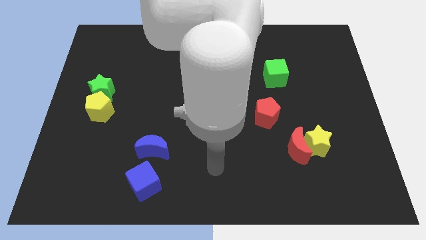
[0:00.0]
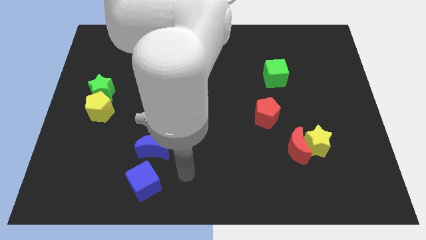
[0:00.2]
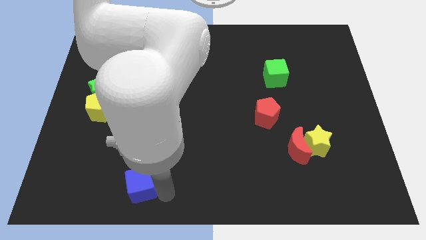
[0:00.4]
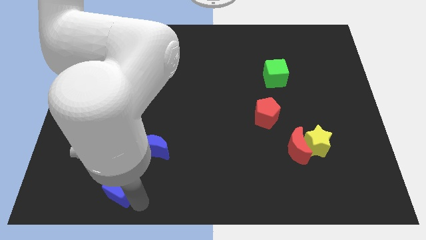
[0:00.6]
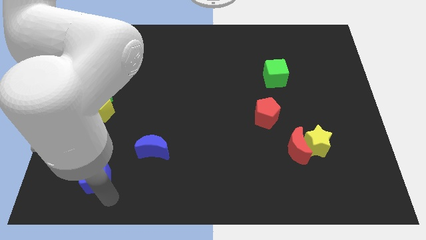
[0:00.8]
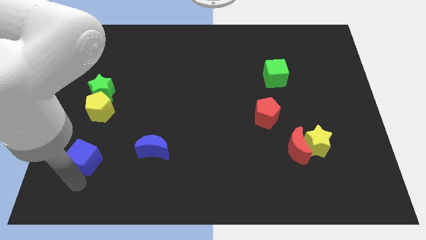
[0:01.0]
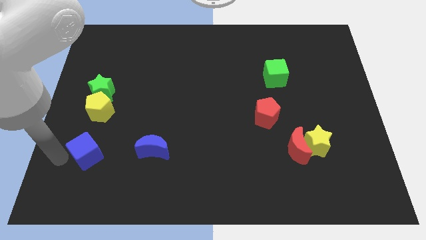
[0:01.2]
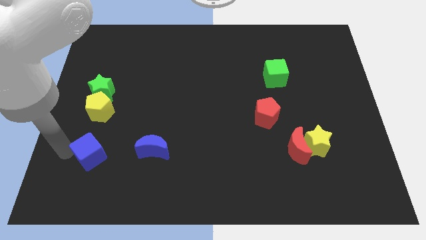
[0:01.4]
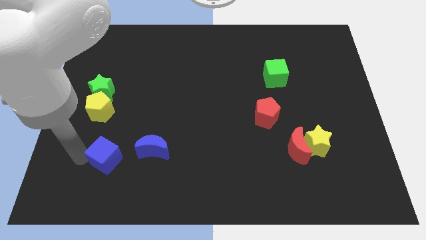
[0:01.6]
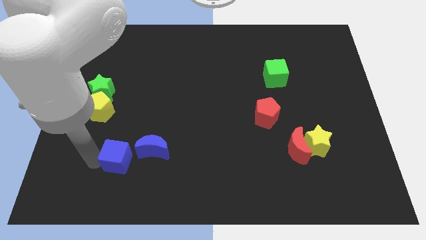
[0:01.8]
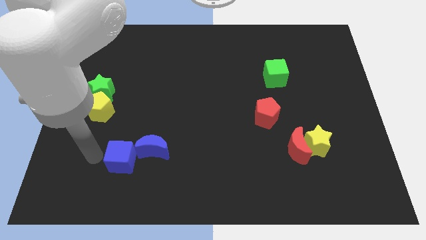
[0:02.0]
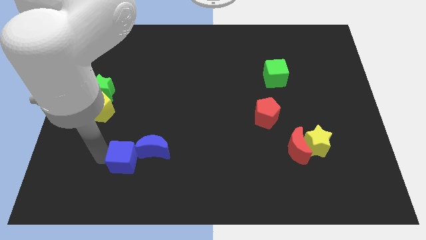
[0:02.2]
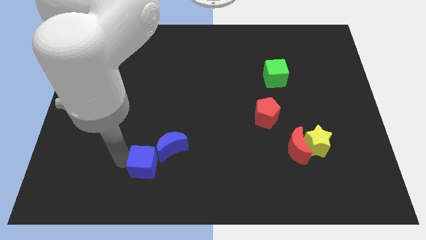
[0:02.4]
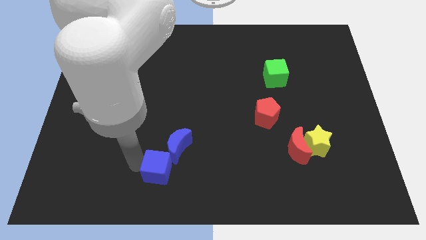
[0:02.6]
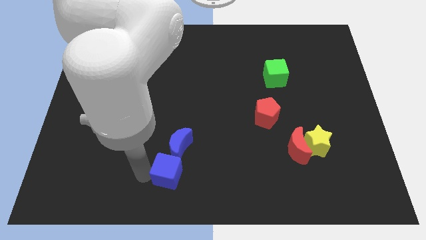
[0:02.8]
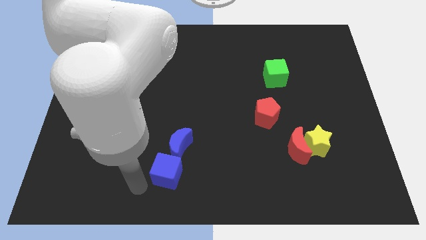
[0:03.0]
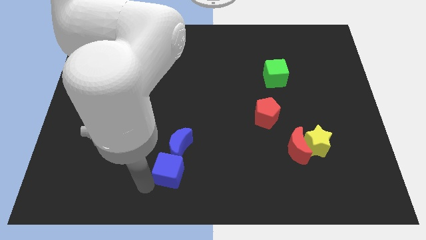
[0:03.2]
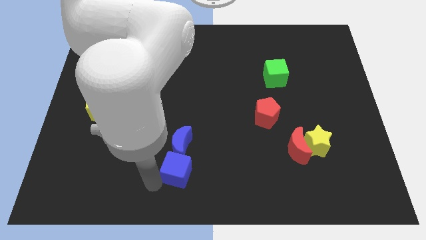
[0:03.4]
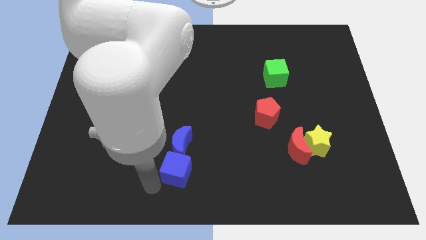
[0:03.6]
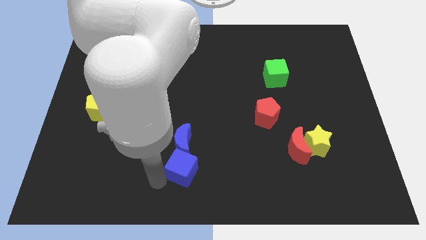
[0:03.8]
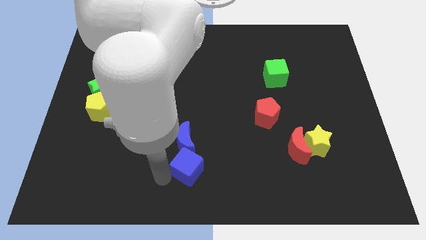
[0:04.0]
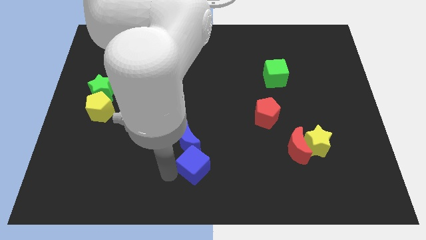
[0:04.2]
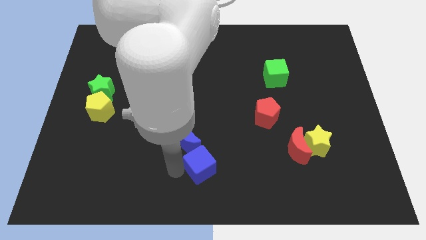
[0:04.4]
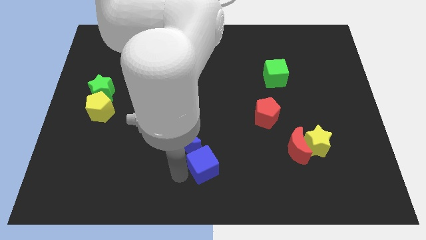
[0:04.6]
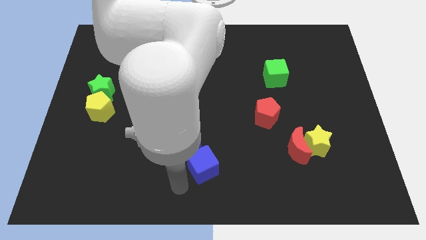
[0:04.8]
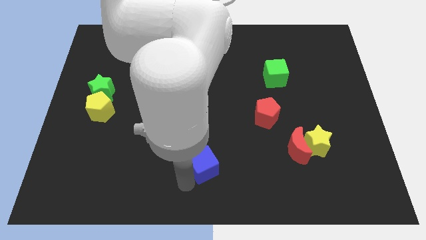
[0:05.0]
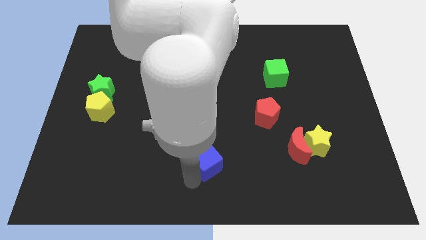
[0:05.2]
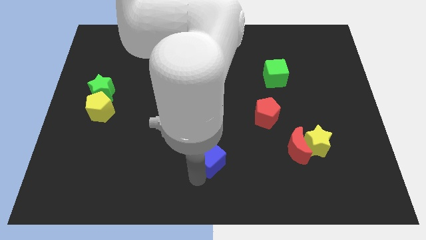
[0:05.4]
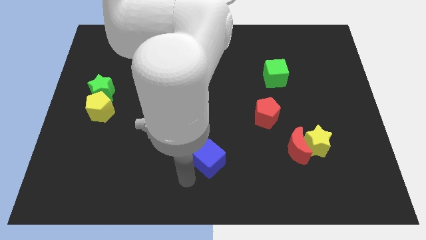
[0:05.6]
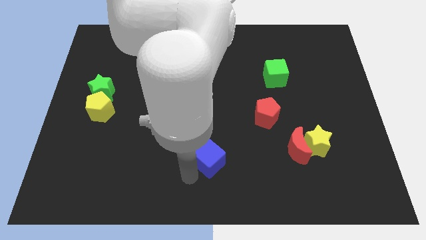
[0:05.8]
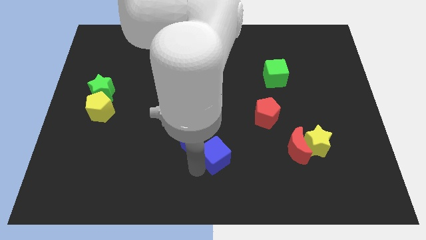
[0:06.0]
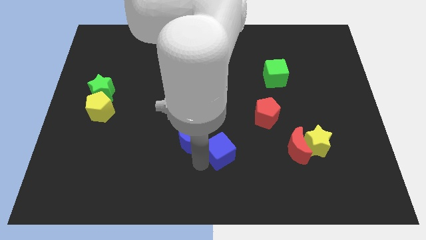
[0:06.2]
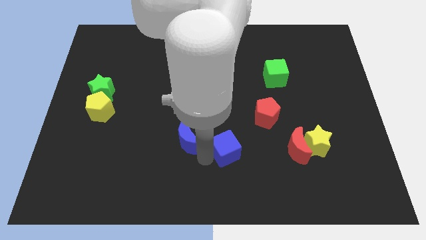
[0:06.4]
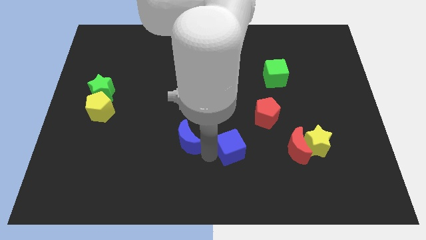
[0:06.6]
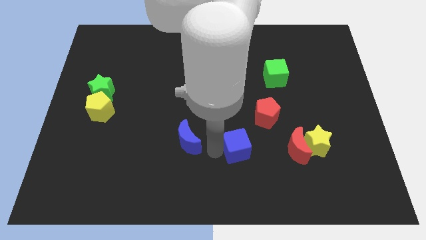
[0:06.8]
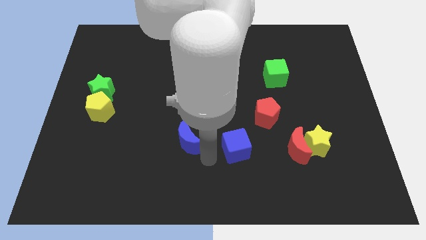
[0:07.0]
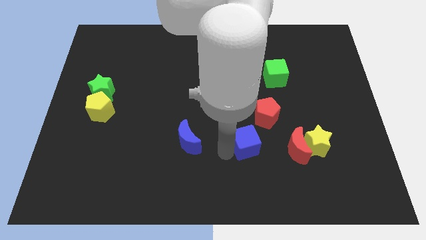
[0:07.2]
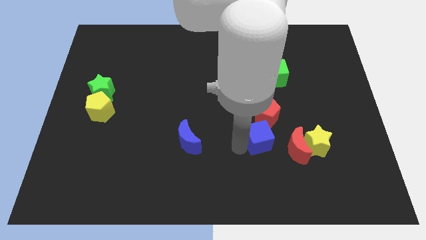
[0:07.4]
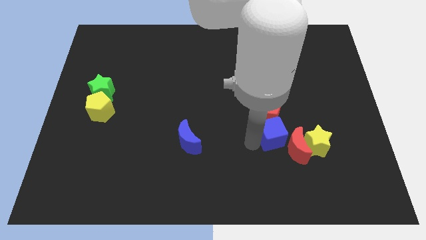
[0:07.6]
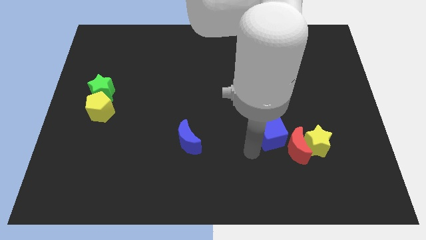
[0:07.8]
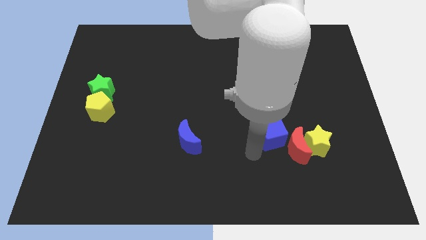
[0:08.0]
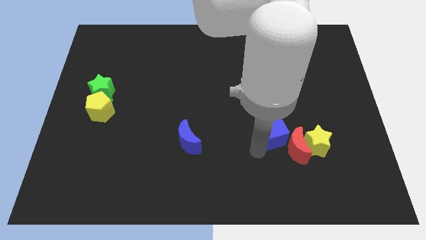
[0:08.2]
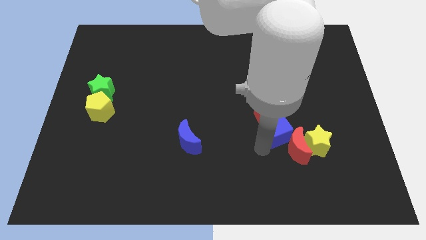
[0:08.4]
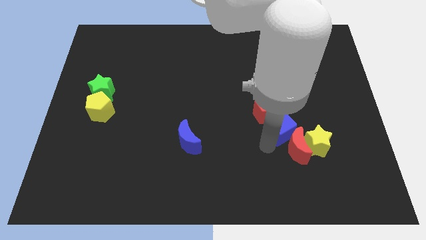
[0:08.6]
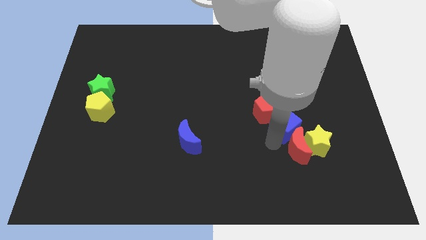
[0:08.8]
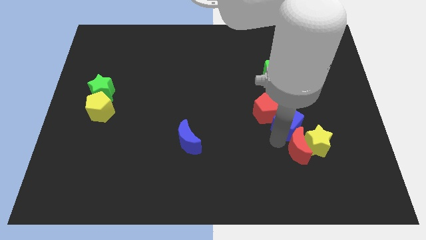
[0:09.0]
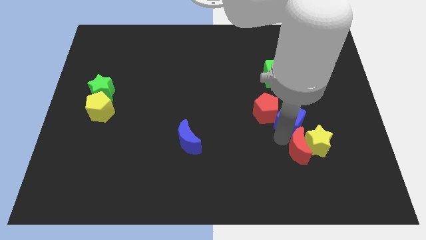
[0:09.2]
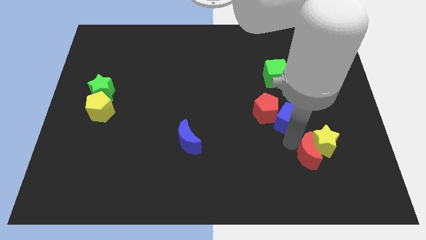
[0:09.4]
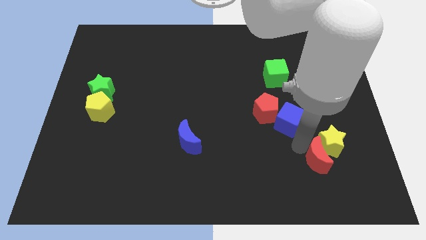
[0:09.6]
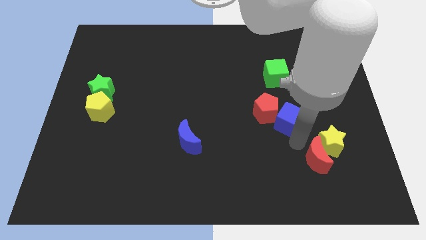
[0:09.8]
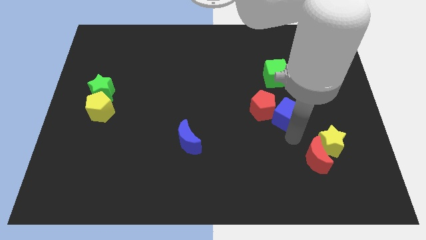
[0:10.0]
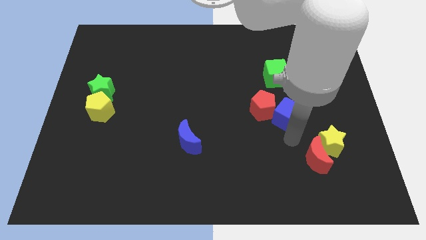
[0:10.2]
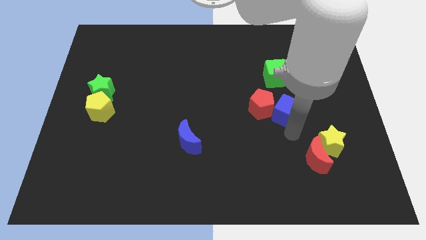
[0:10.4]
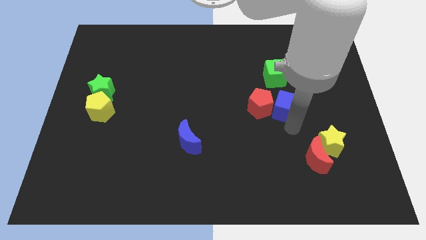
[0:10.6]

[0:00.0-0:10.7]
push the blue cube diagonally up and to the right of the red pentagon

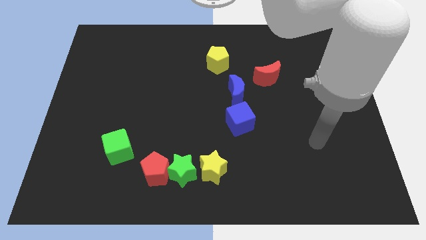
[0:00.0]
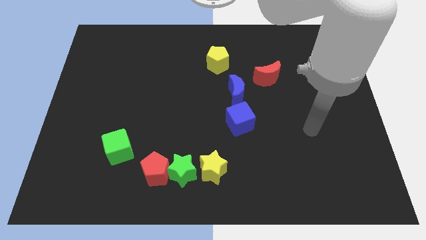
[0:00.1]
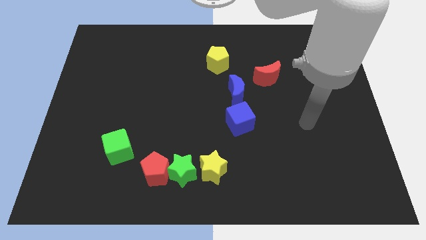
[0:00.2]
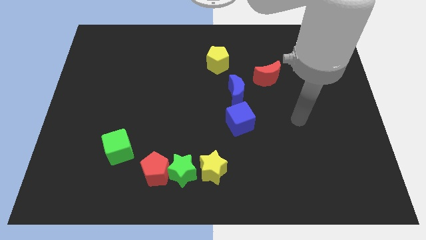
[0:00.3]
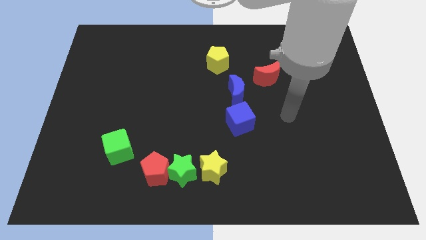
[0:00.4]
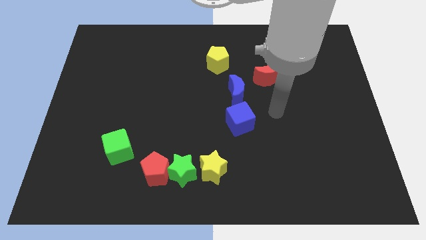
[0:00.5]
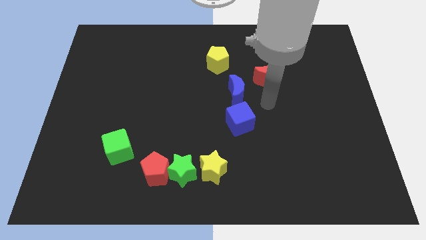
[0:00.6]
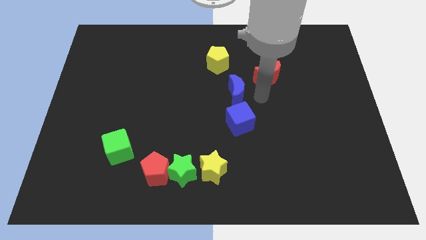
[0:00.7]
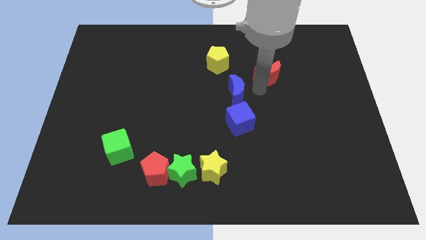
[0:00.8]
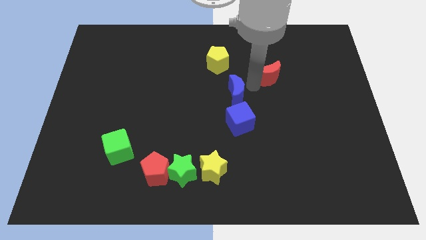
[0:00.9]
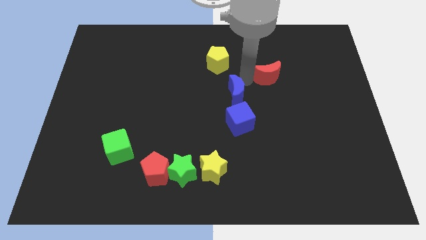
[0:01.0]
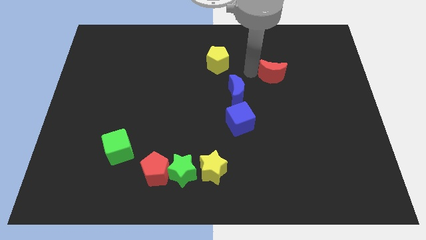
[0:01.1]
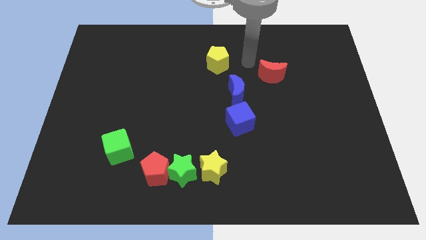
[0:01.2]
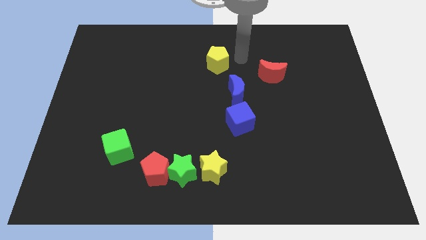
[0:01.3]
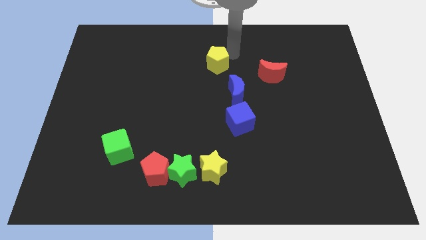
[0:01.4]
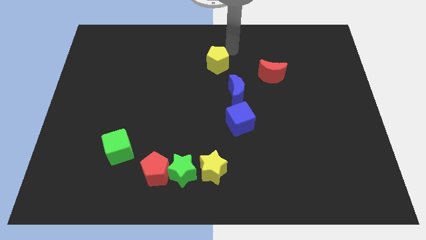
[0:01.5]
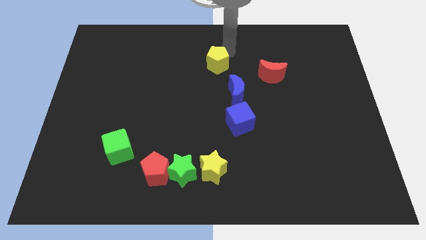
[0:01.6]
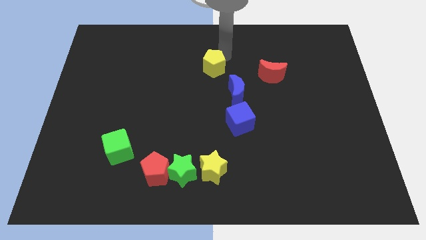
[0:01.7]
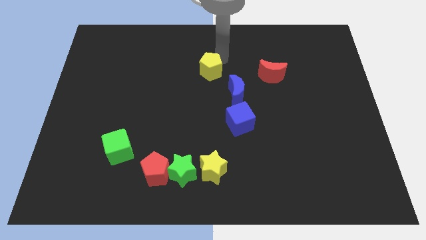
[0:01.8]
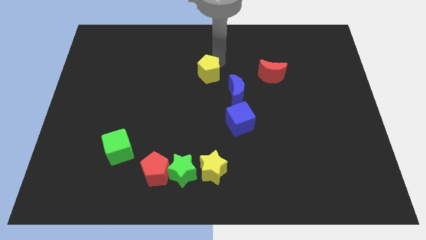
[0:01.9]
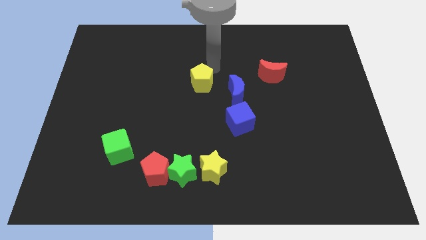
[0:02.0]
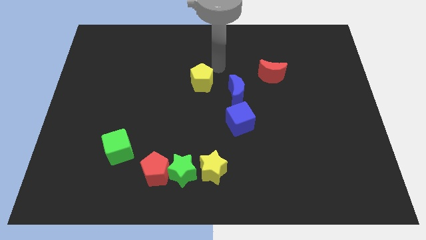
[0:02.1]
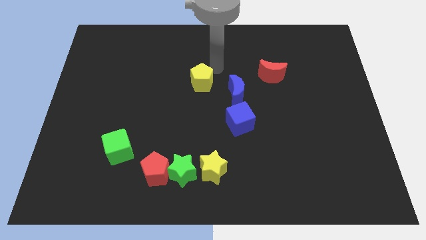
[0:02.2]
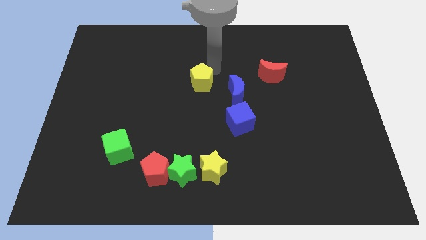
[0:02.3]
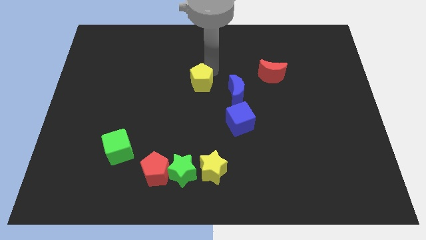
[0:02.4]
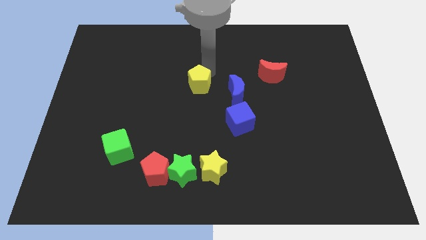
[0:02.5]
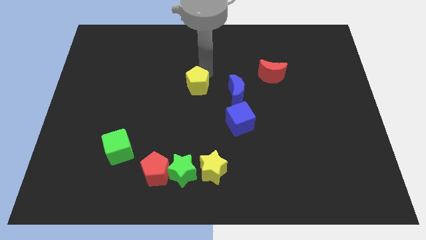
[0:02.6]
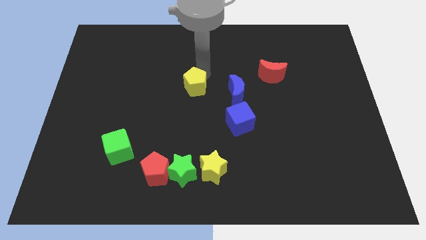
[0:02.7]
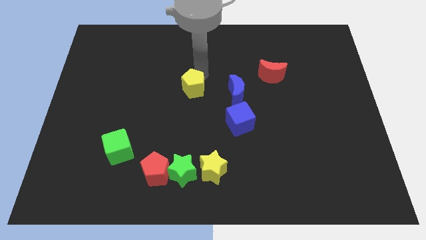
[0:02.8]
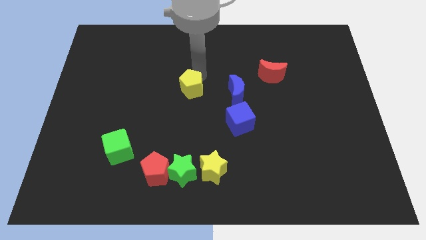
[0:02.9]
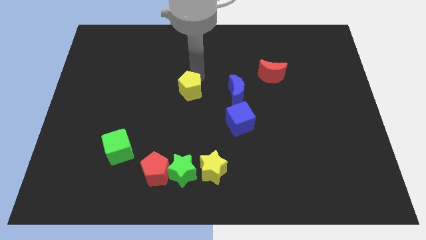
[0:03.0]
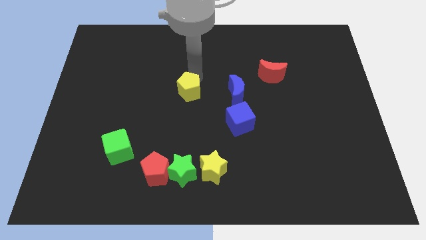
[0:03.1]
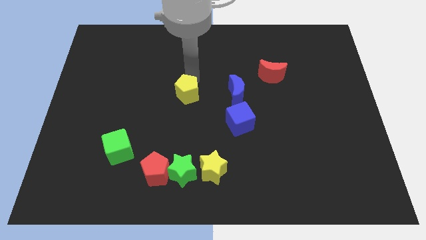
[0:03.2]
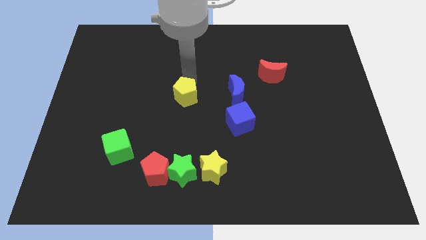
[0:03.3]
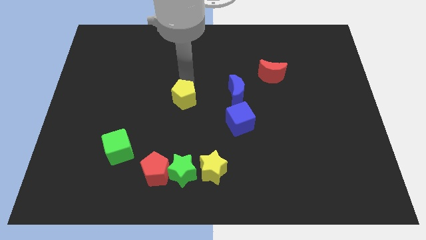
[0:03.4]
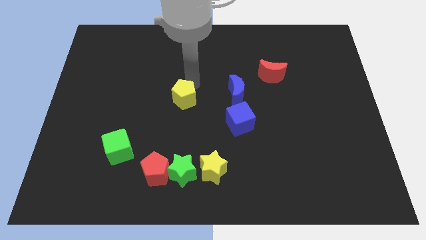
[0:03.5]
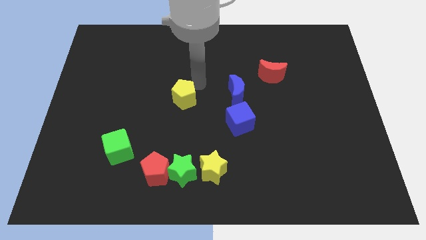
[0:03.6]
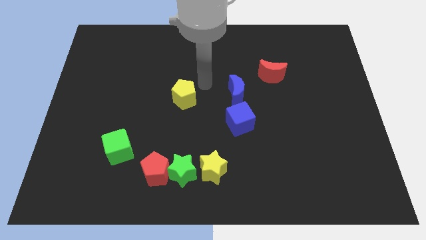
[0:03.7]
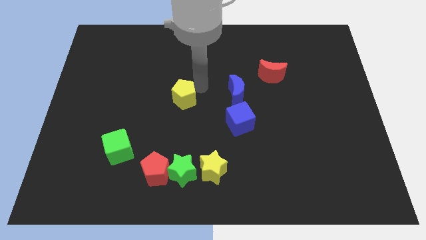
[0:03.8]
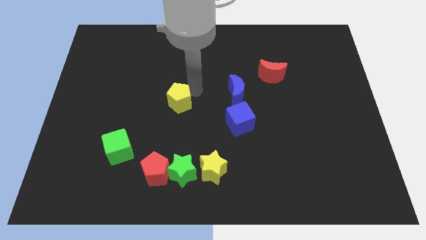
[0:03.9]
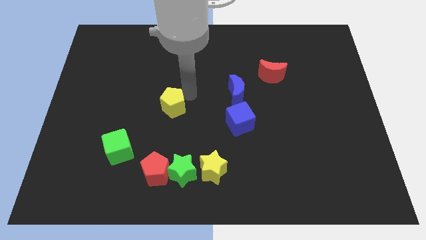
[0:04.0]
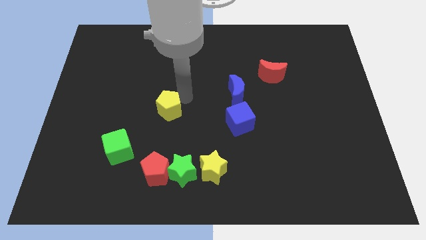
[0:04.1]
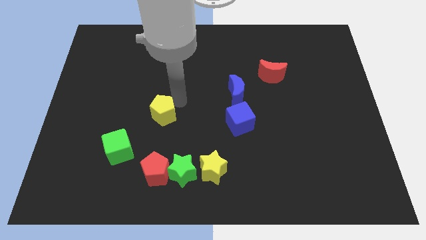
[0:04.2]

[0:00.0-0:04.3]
put the yellow pentagon diagonally up and to the right of the green cube
